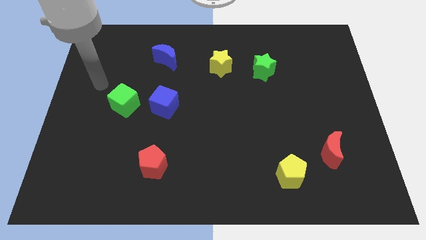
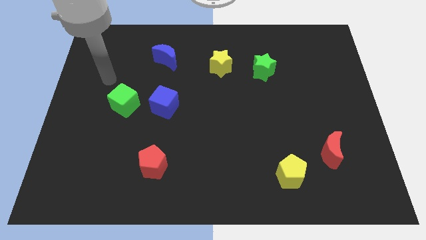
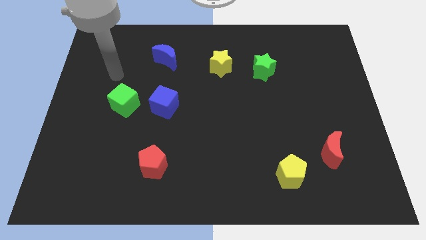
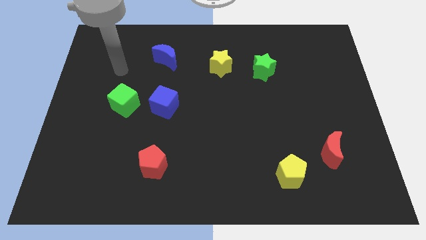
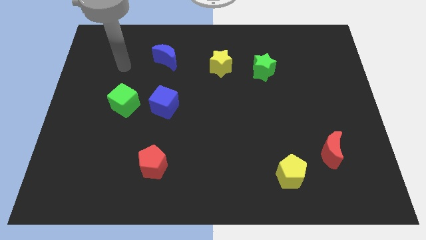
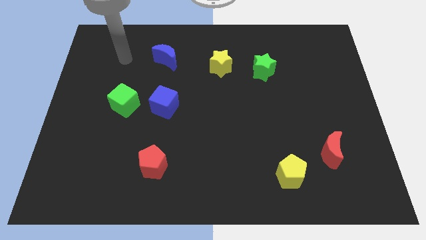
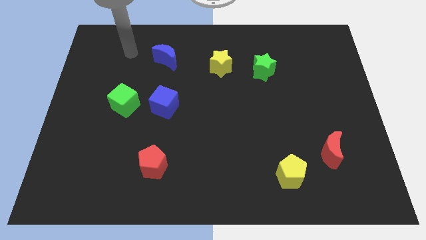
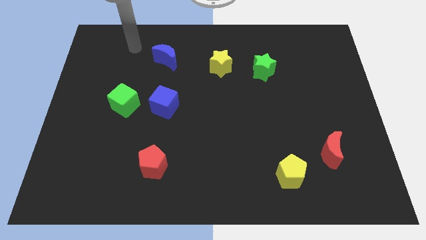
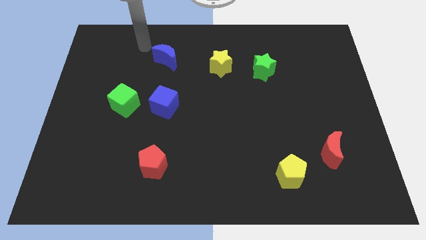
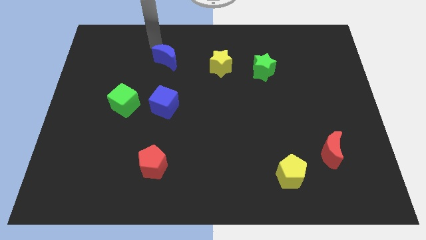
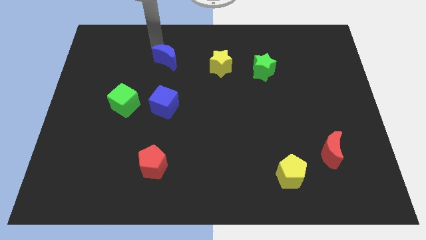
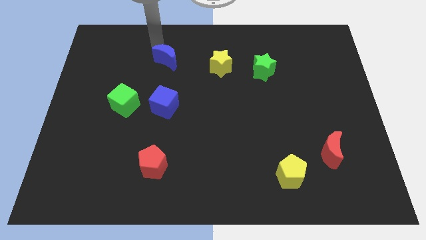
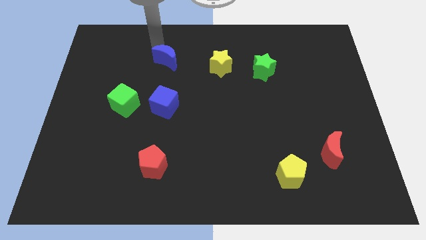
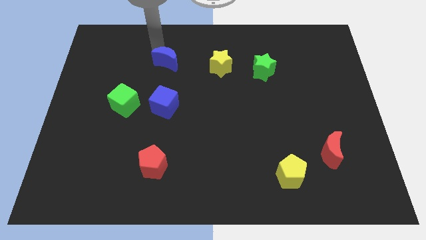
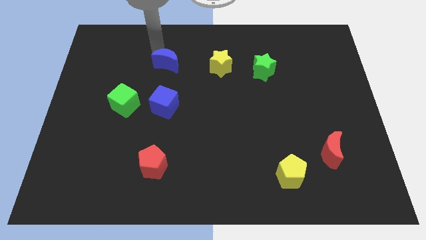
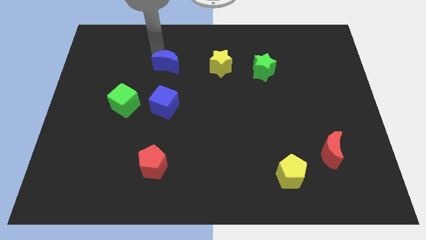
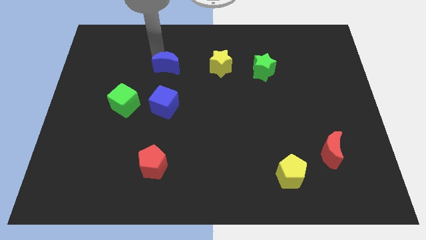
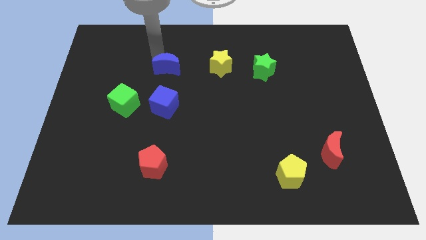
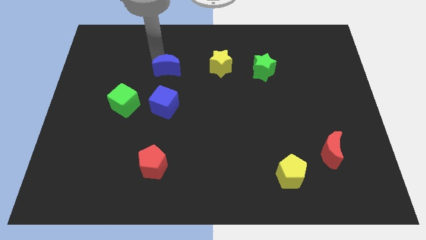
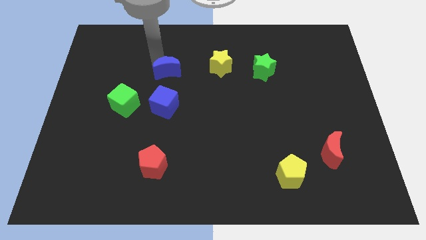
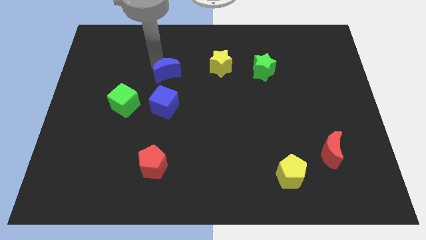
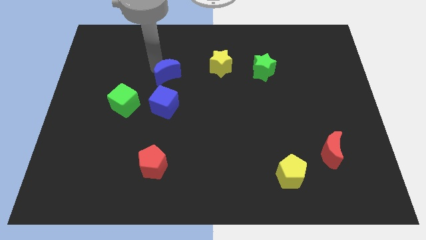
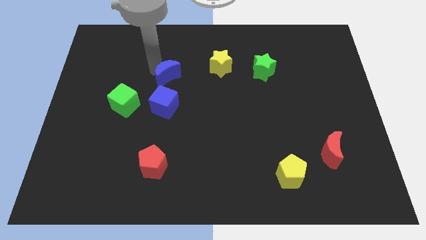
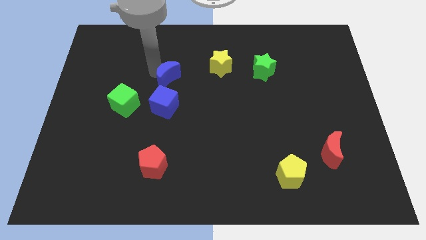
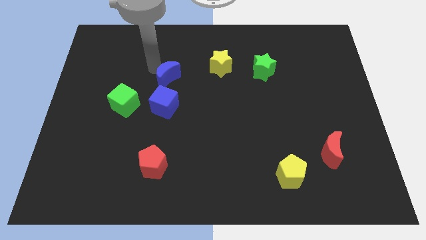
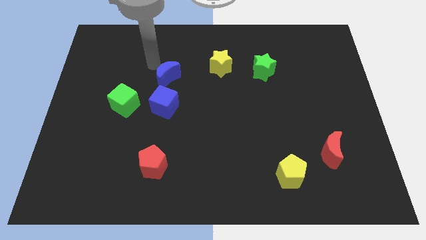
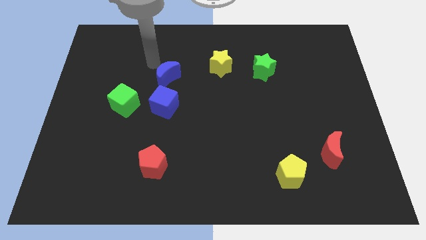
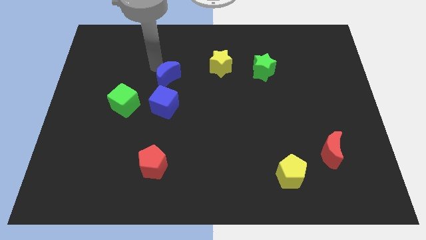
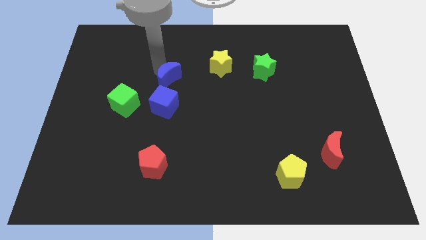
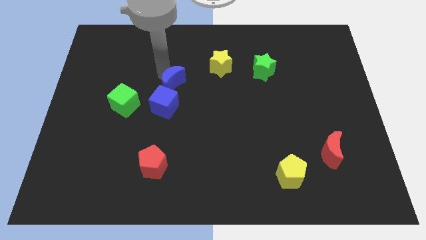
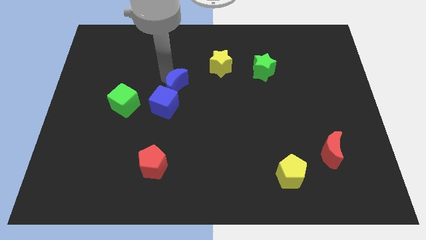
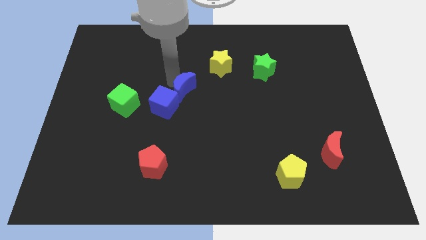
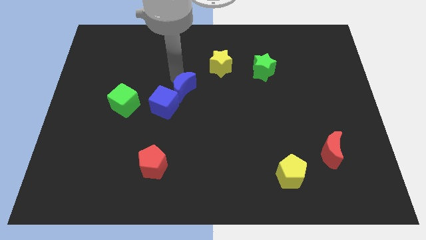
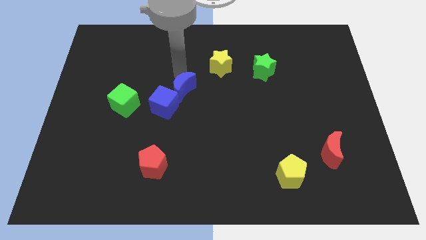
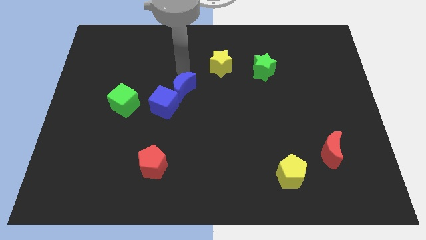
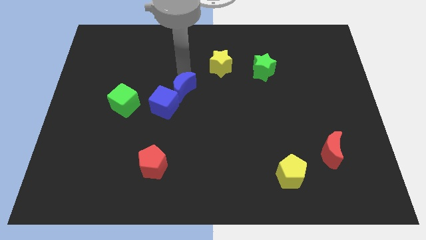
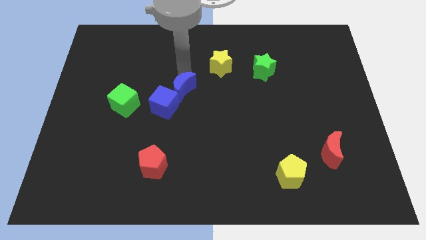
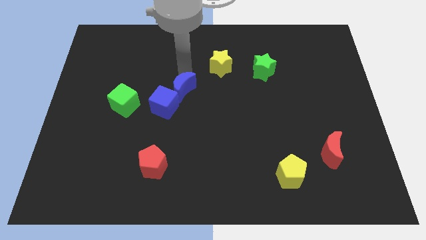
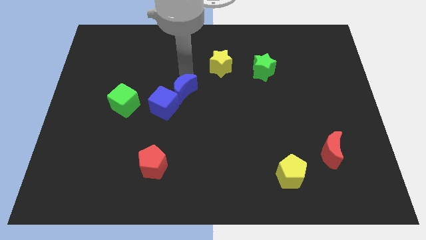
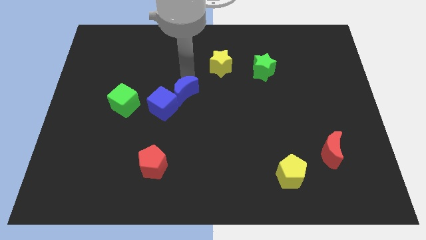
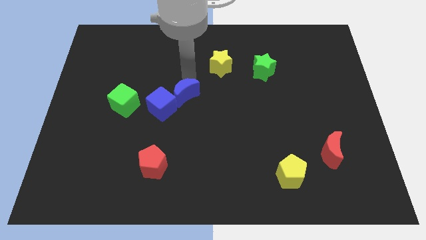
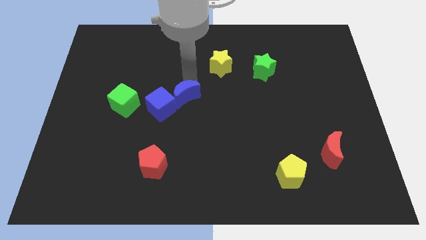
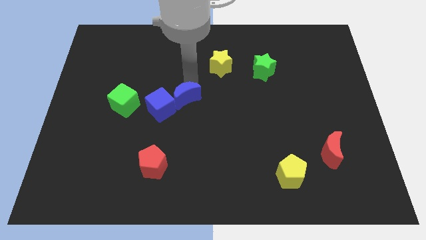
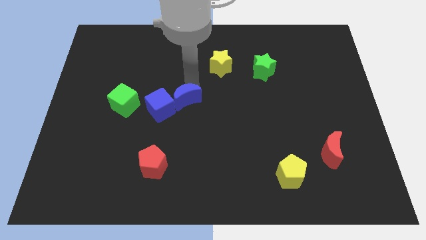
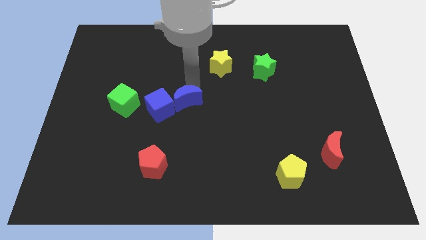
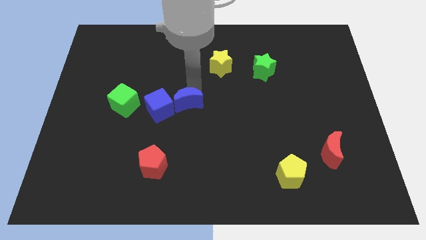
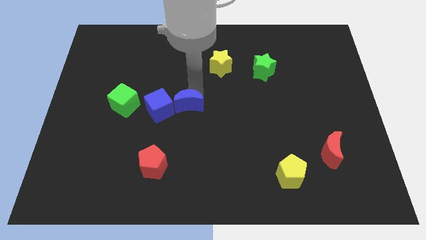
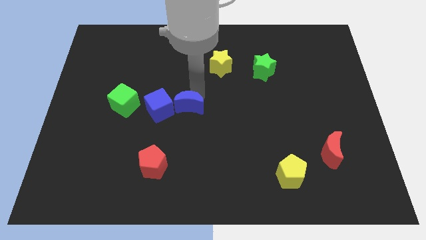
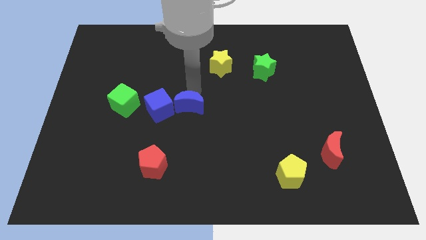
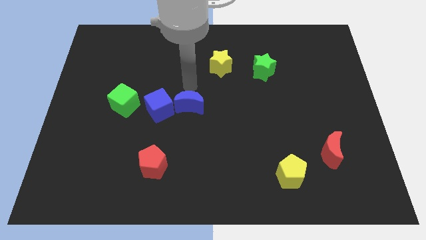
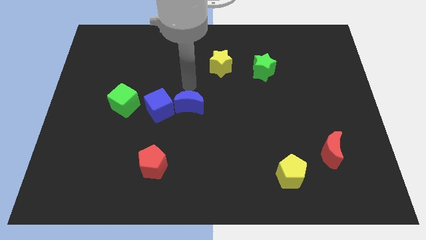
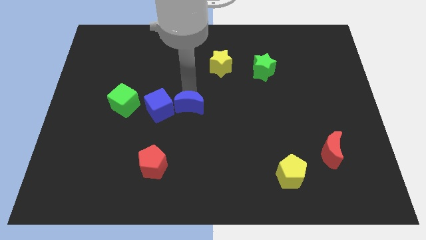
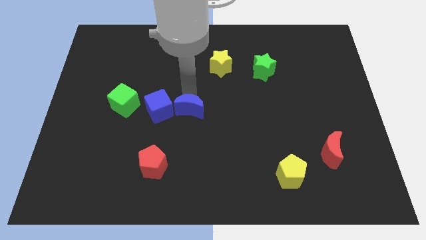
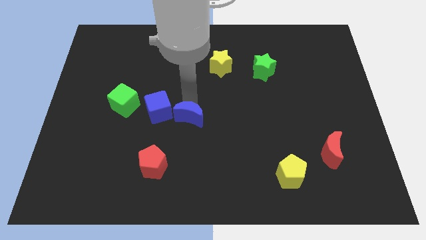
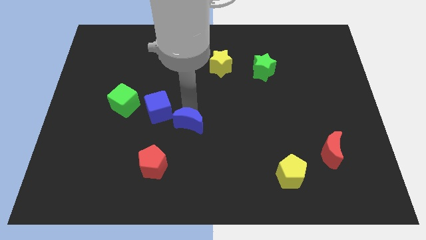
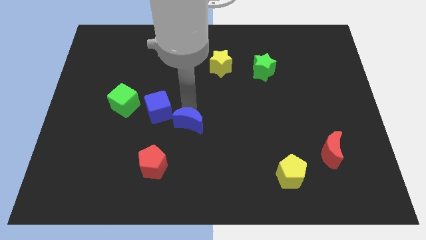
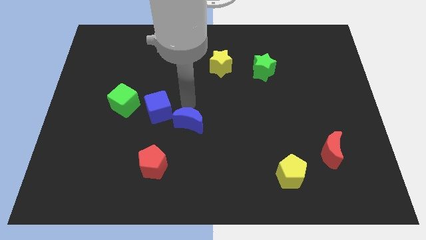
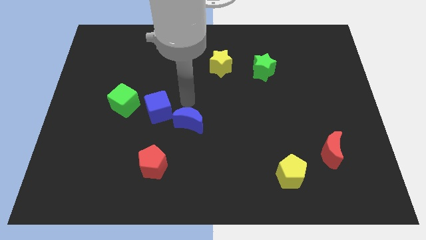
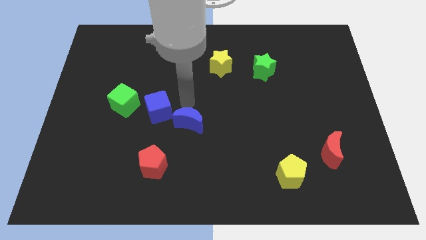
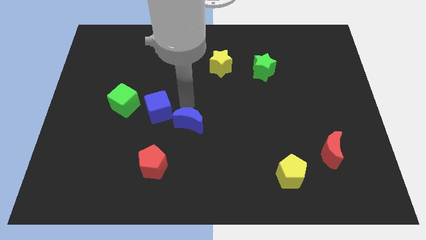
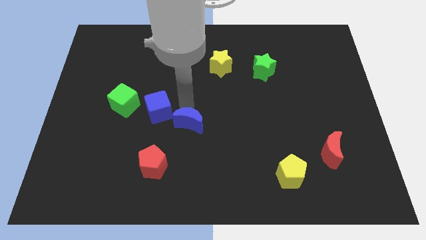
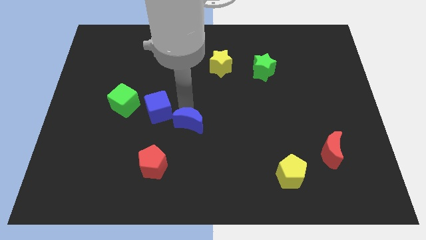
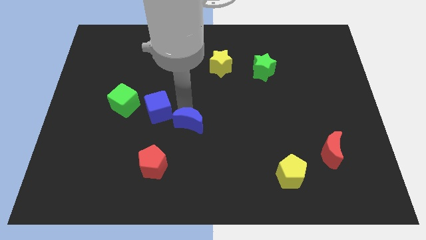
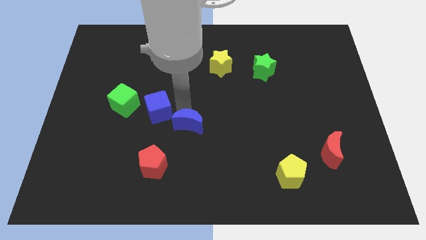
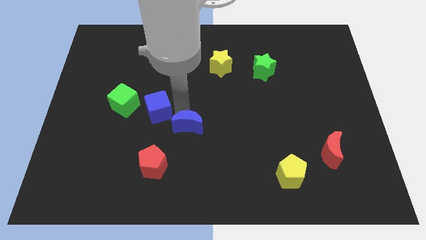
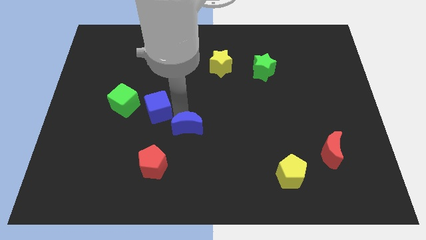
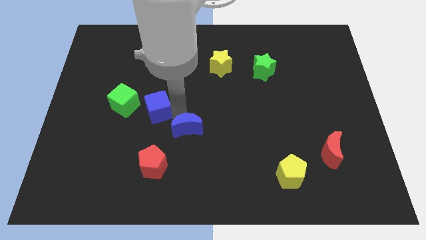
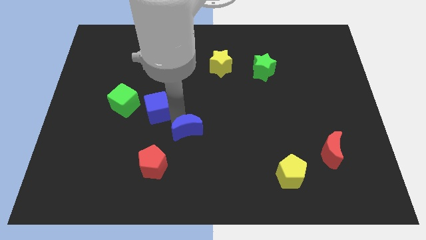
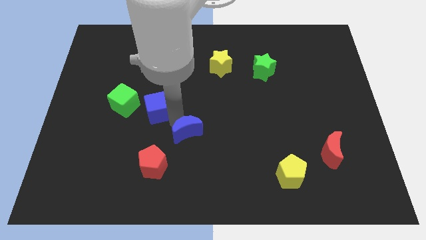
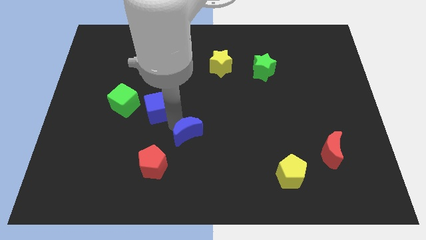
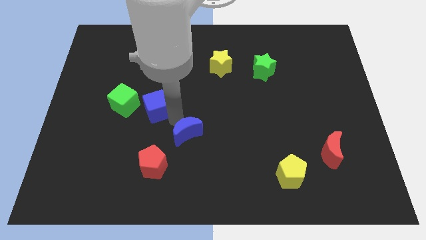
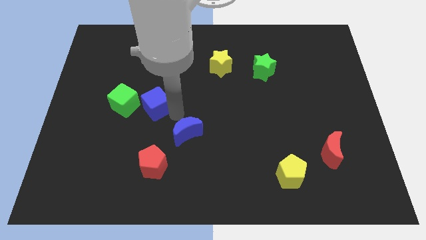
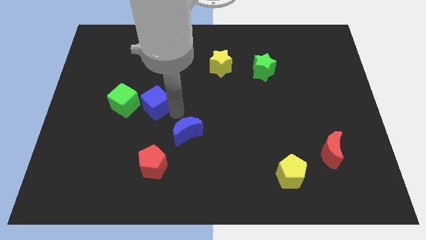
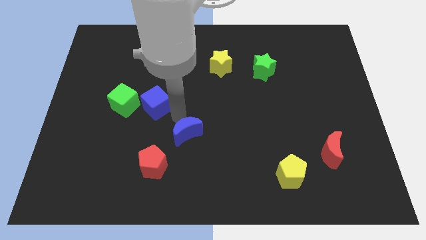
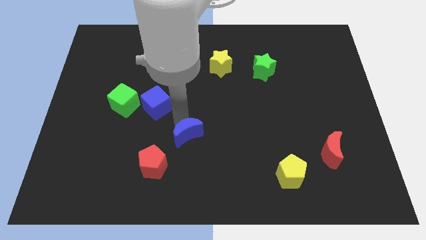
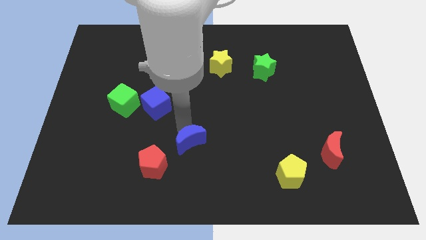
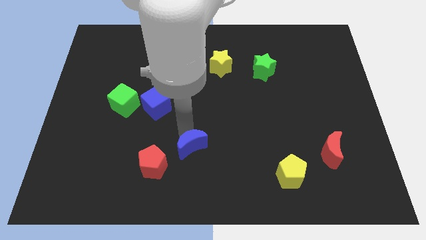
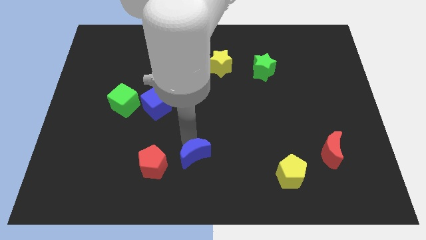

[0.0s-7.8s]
move the blue moon to the bottom
